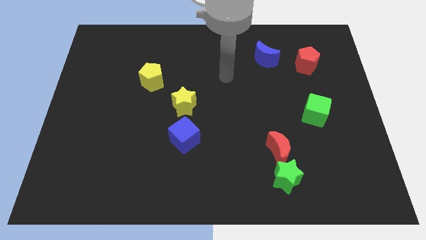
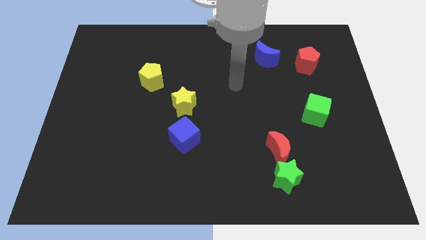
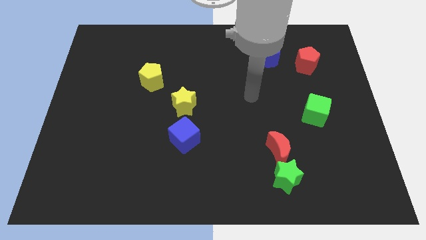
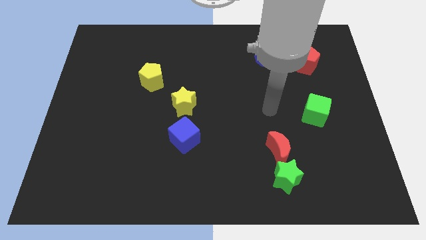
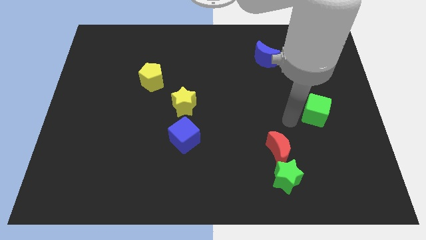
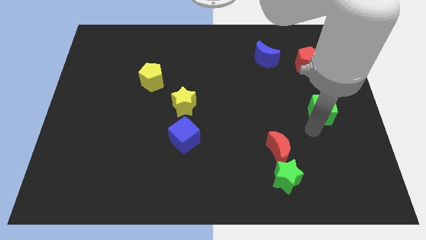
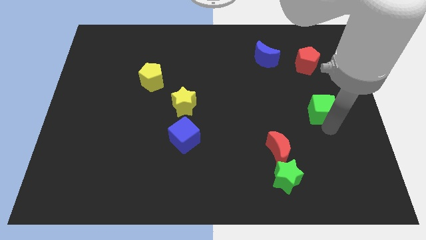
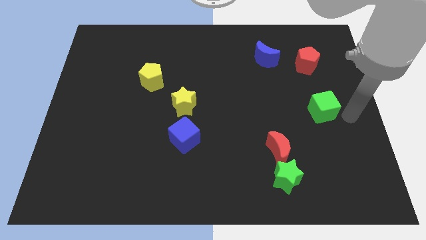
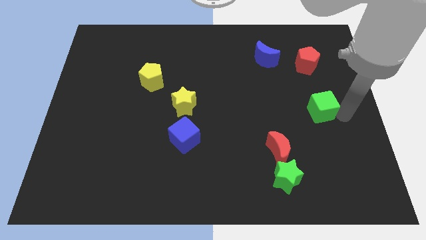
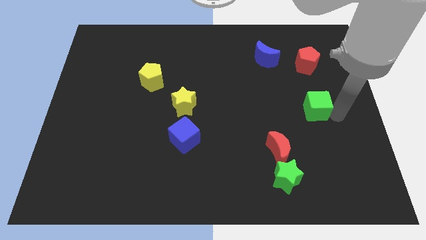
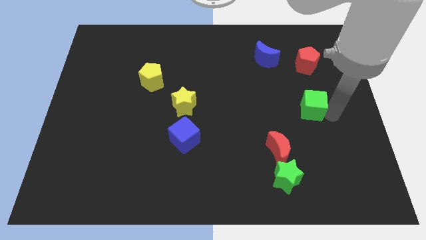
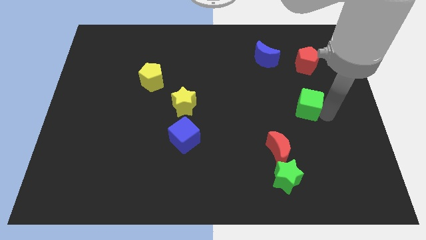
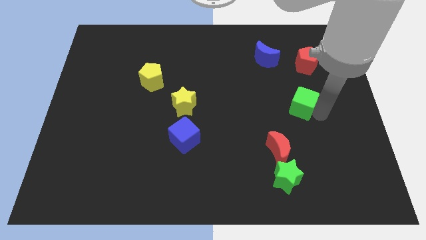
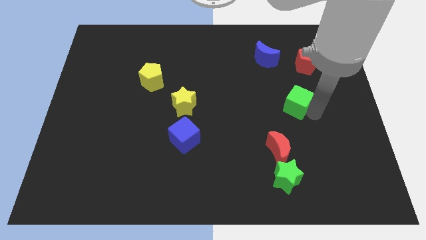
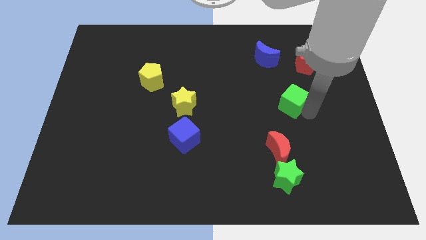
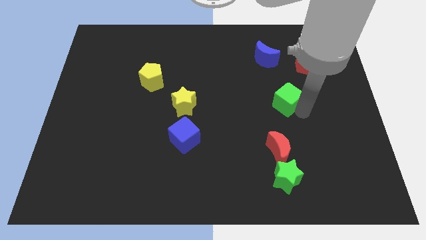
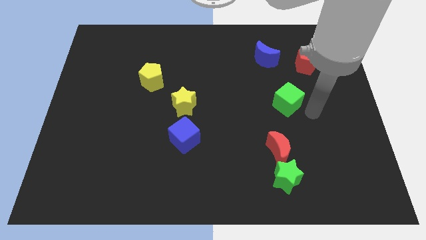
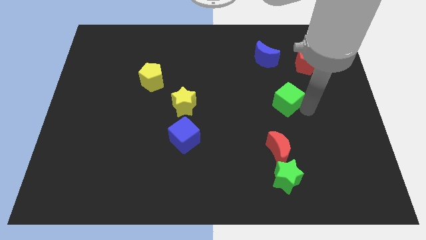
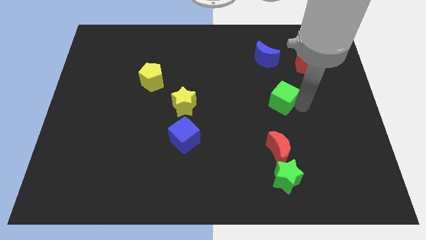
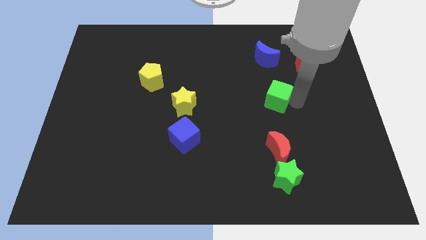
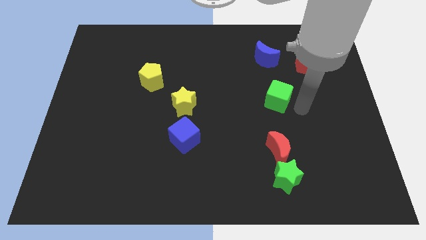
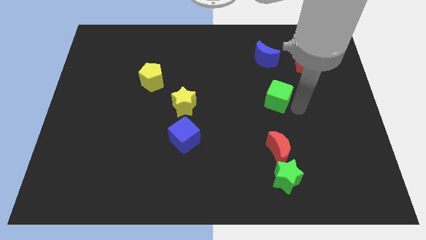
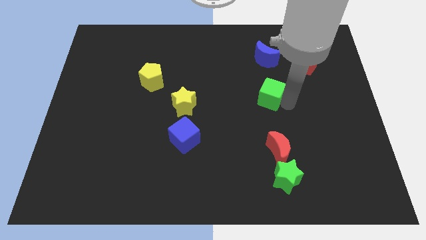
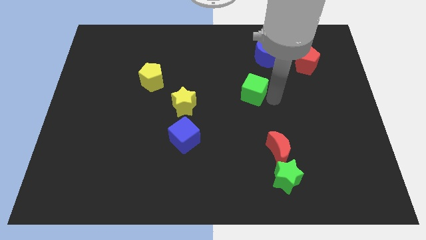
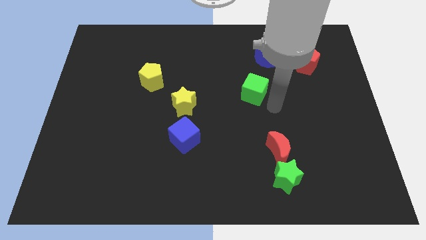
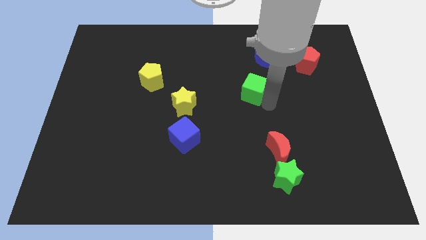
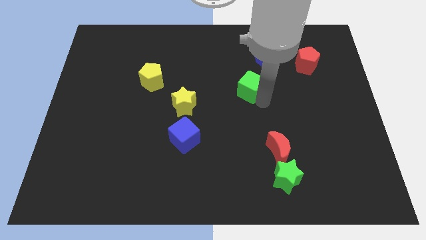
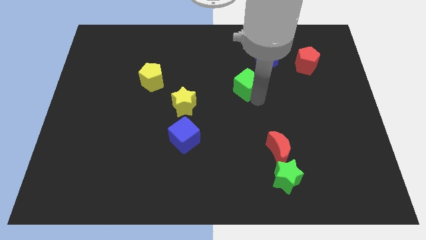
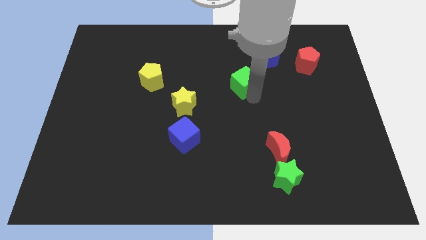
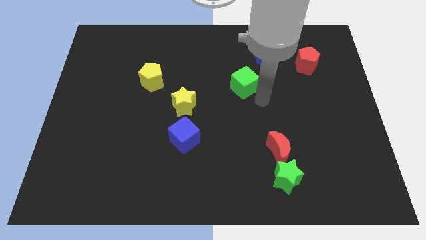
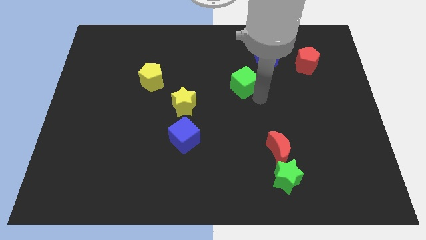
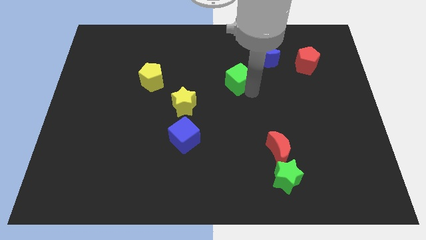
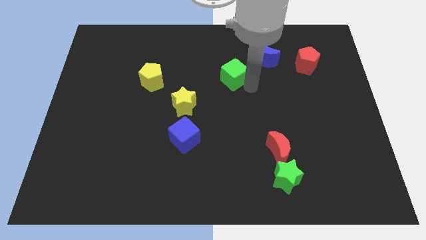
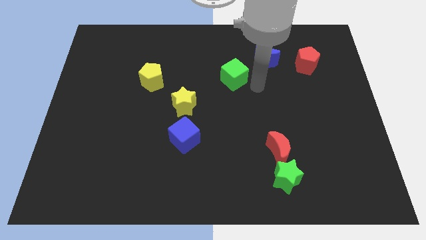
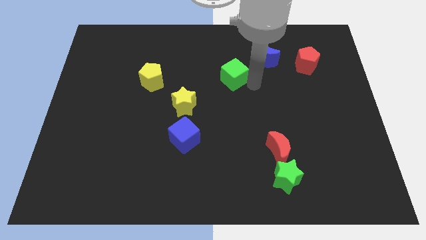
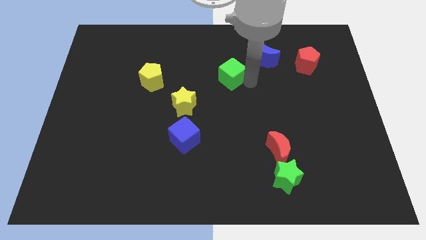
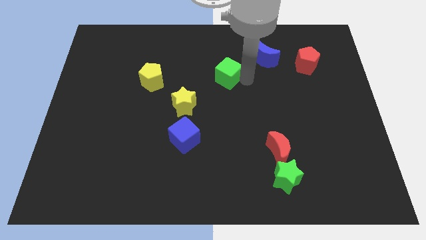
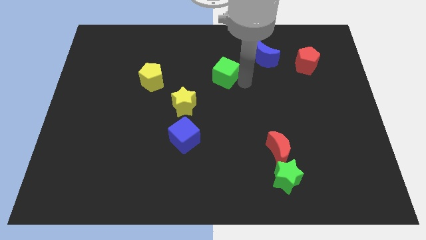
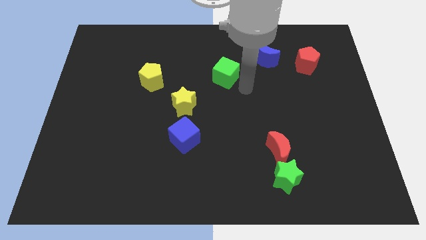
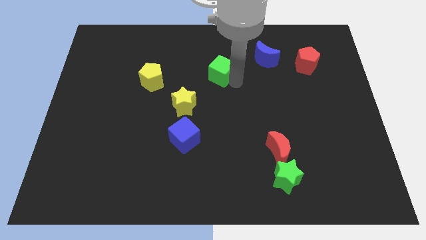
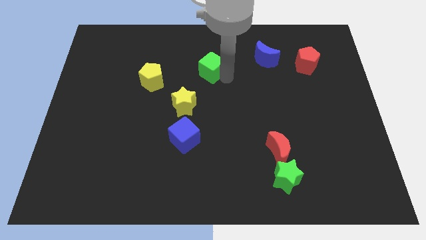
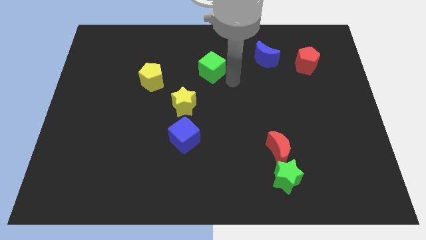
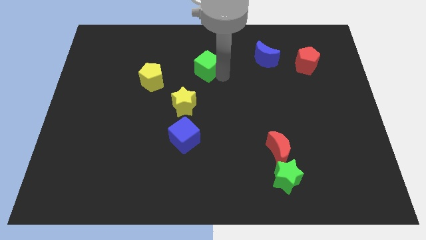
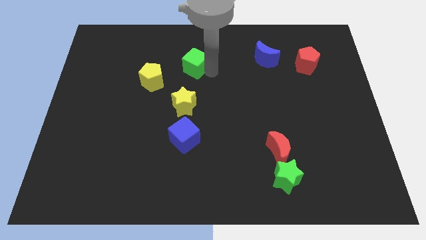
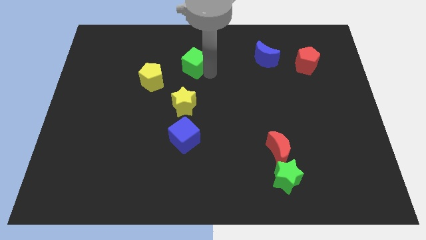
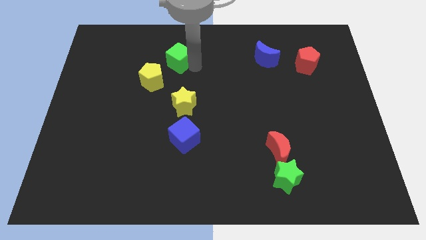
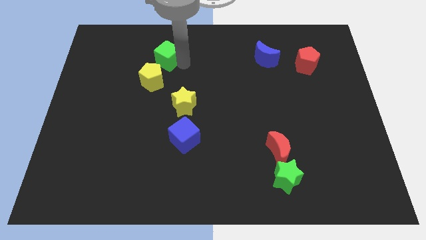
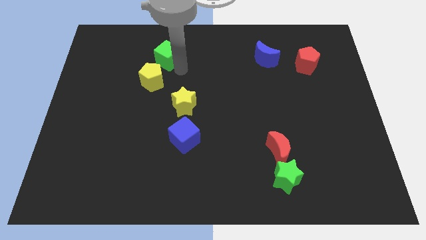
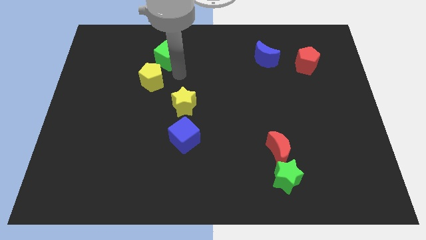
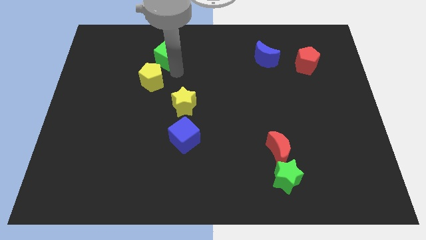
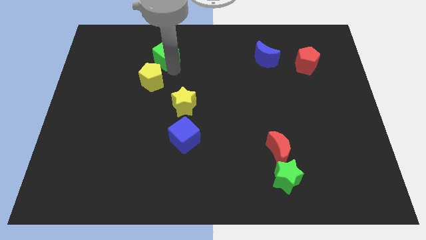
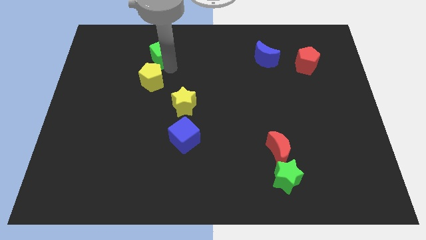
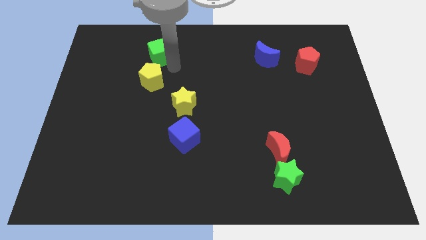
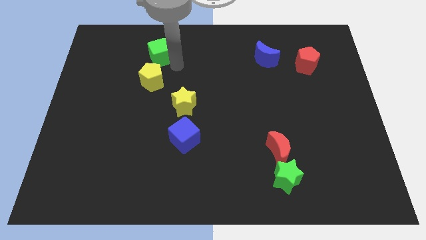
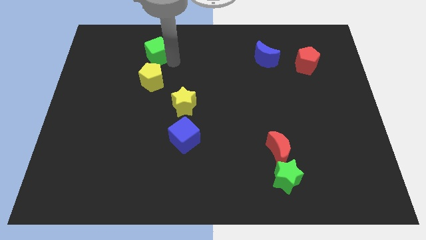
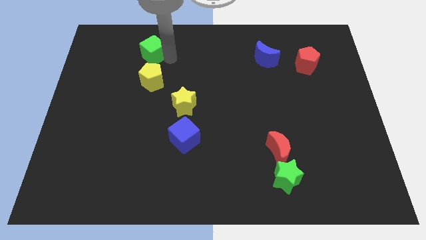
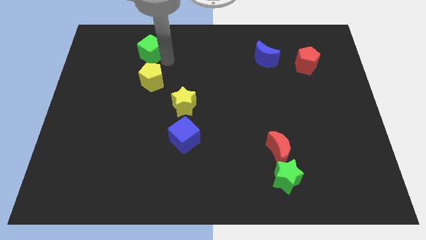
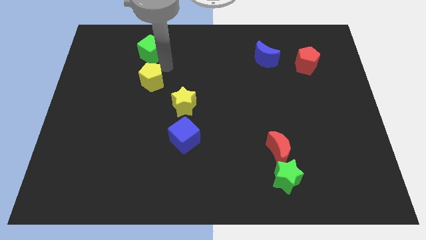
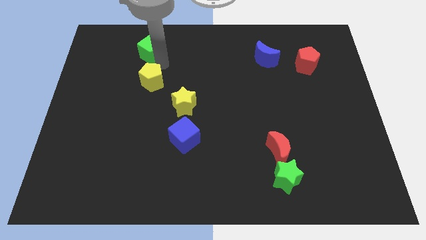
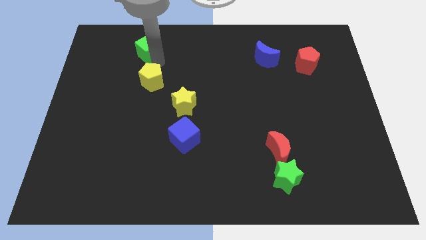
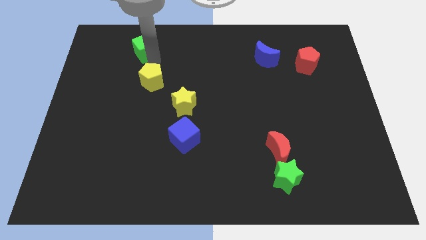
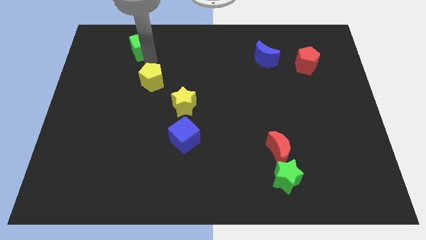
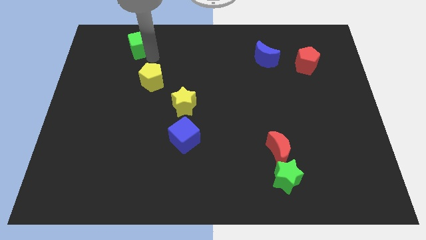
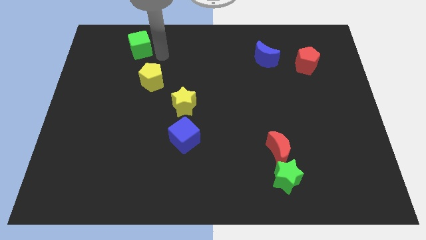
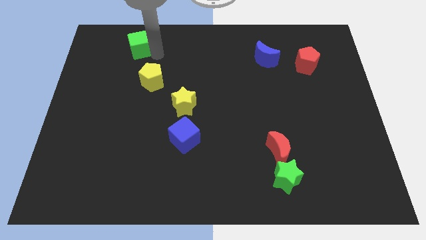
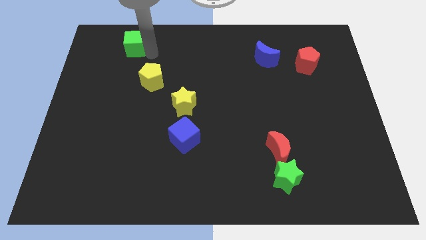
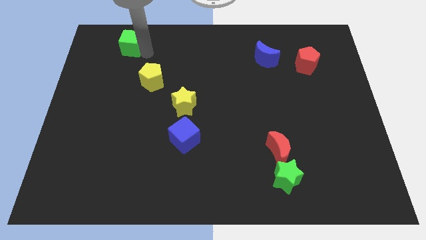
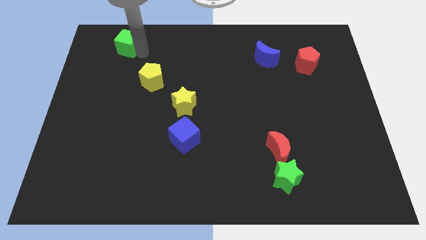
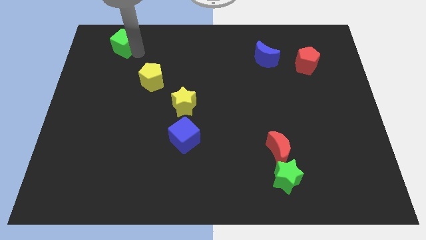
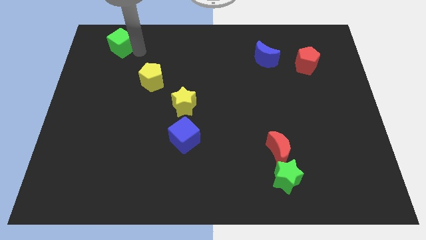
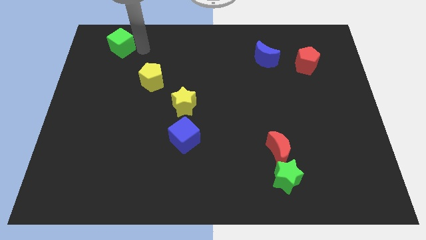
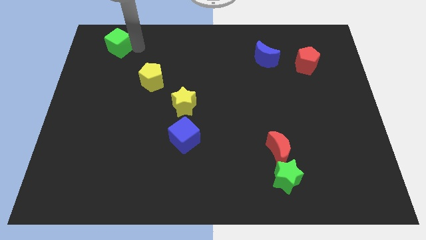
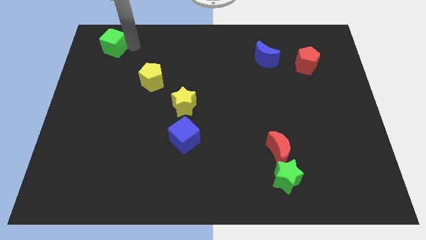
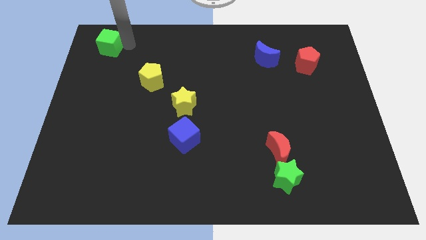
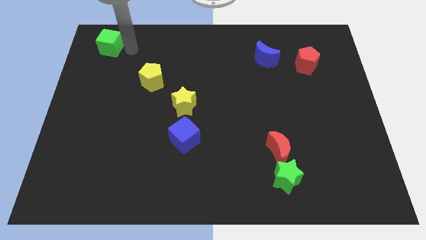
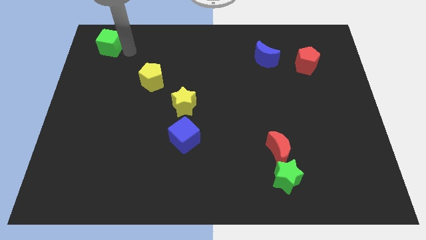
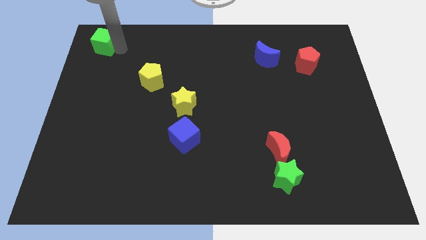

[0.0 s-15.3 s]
move the green cube to the top left corner
